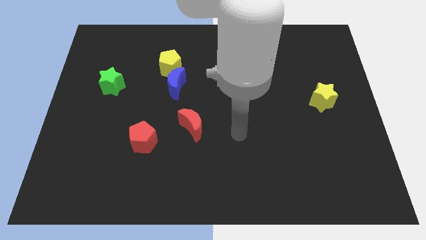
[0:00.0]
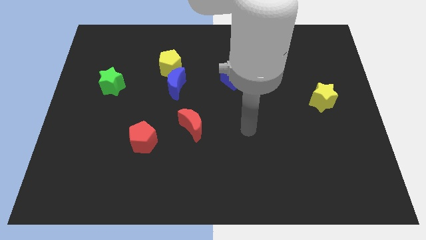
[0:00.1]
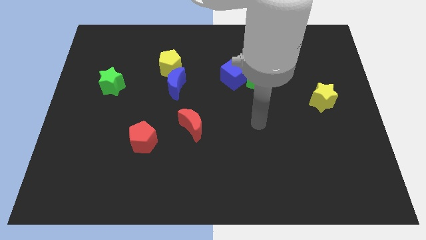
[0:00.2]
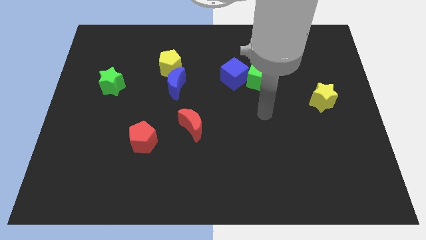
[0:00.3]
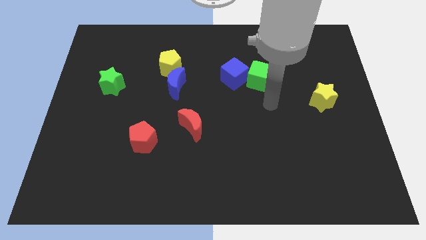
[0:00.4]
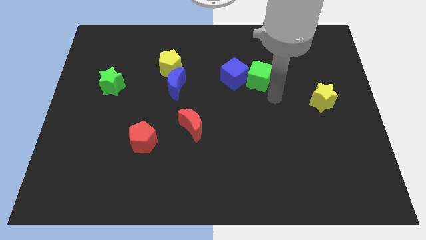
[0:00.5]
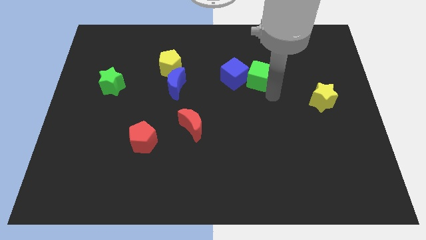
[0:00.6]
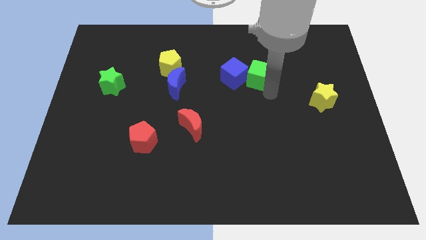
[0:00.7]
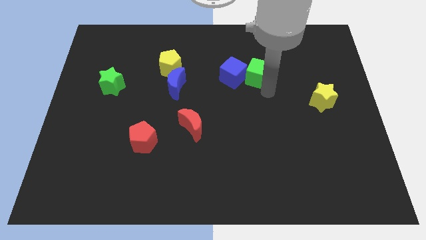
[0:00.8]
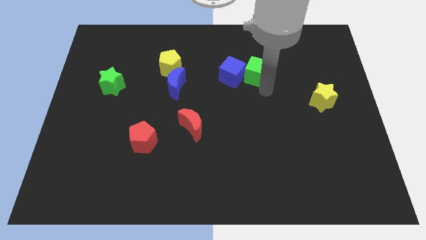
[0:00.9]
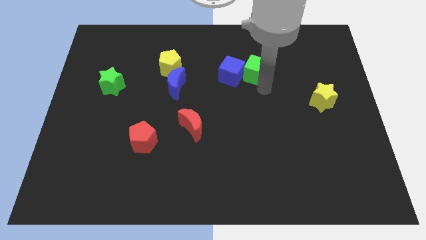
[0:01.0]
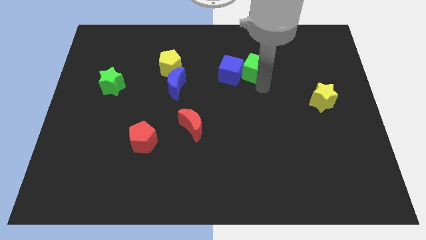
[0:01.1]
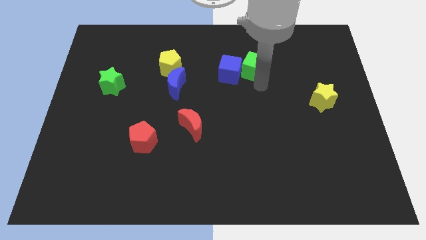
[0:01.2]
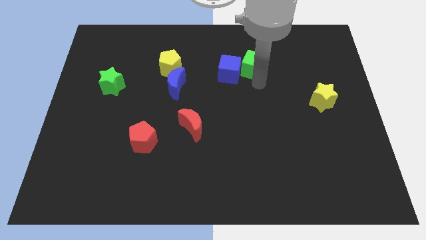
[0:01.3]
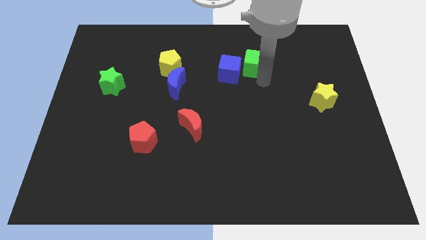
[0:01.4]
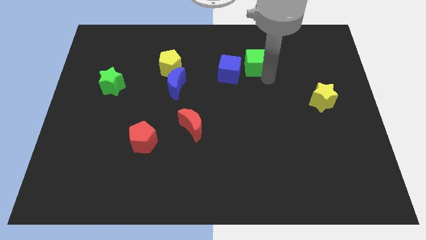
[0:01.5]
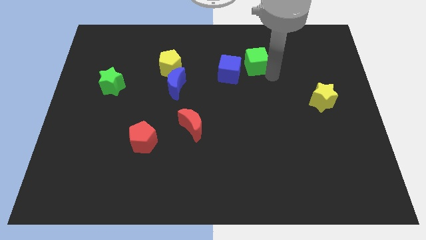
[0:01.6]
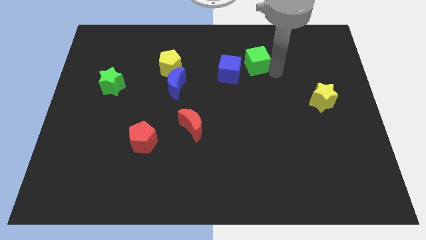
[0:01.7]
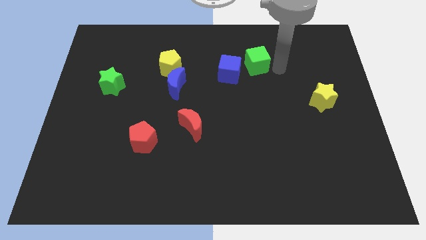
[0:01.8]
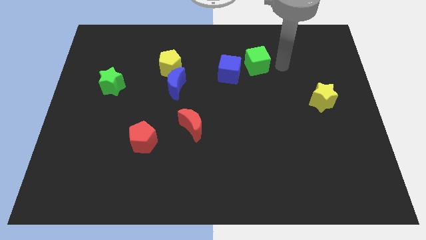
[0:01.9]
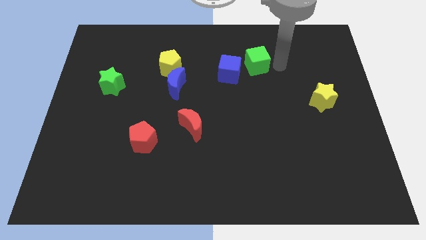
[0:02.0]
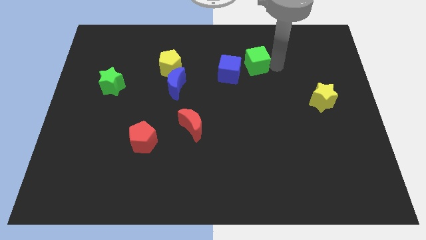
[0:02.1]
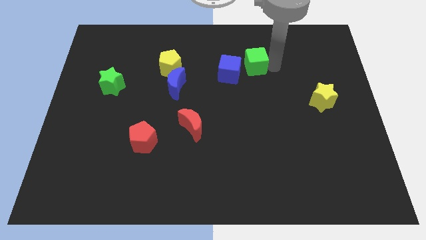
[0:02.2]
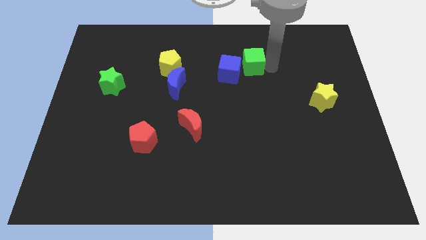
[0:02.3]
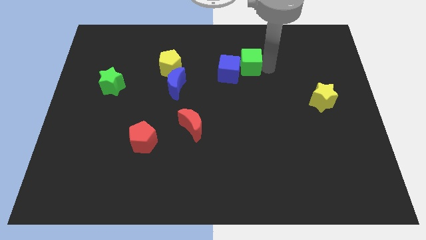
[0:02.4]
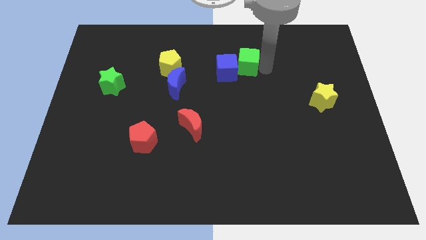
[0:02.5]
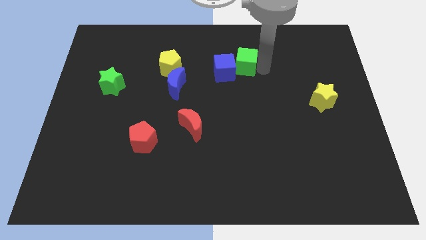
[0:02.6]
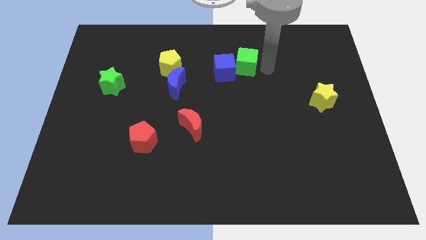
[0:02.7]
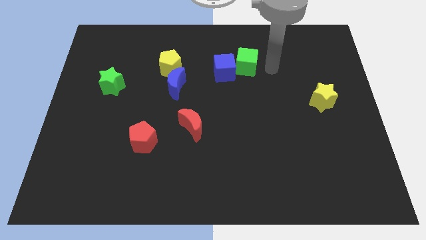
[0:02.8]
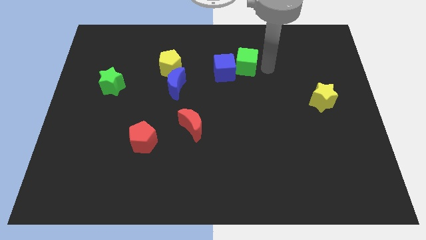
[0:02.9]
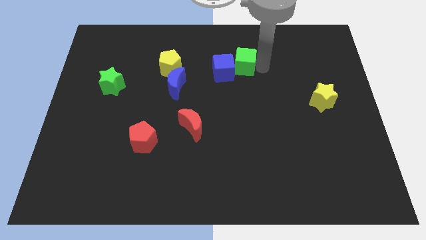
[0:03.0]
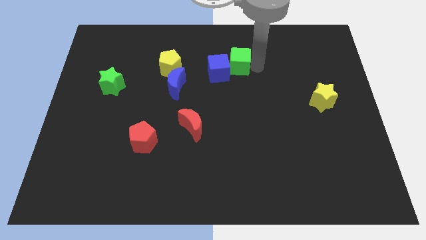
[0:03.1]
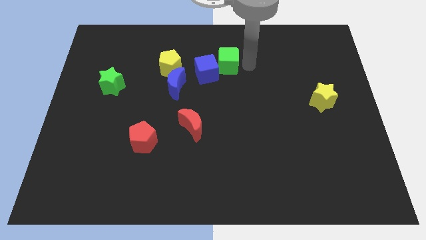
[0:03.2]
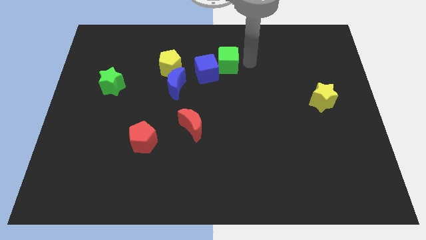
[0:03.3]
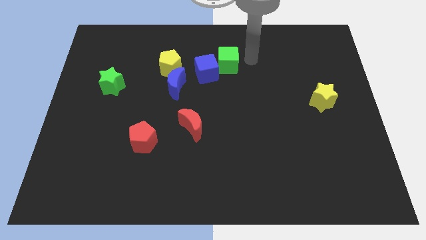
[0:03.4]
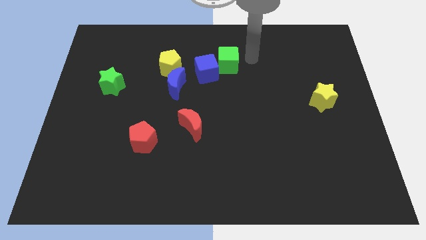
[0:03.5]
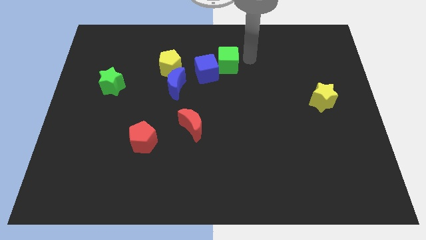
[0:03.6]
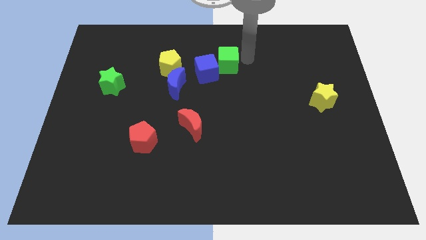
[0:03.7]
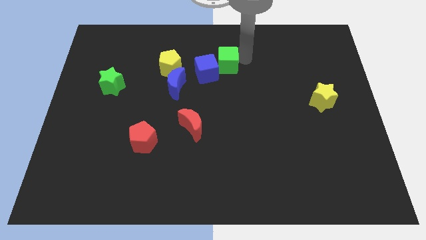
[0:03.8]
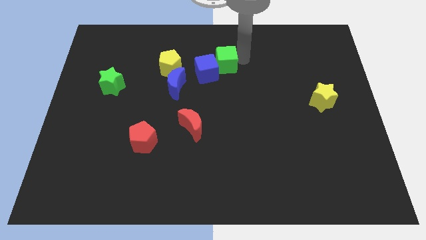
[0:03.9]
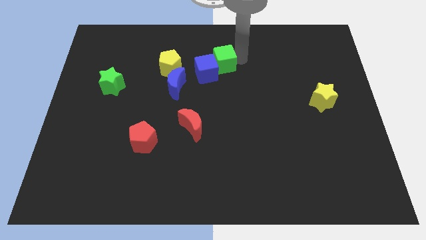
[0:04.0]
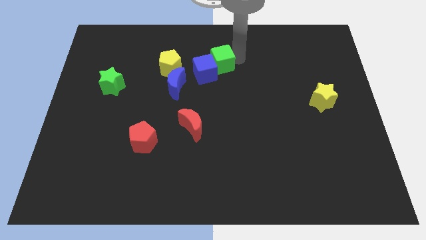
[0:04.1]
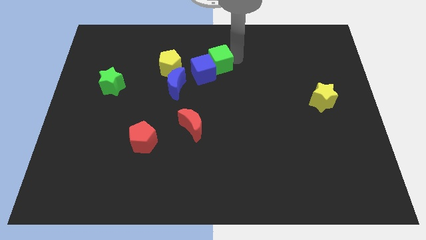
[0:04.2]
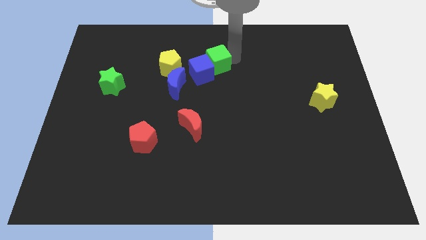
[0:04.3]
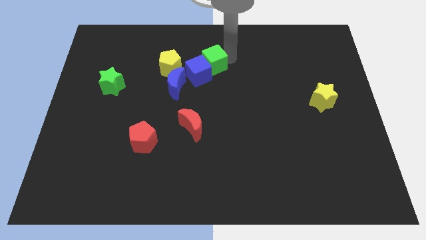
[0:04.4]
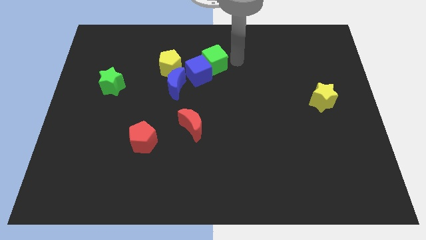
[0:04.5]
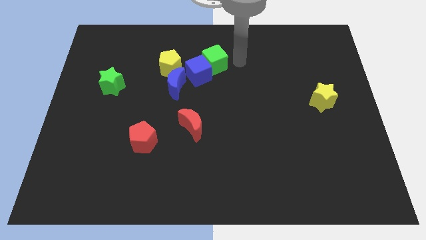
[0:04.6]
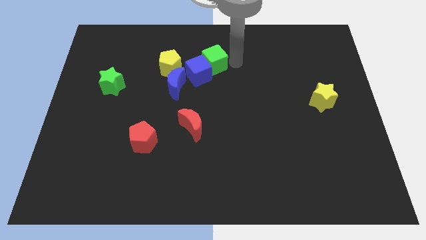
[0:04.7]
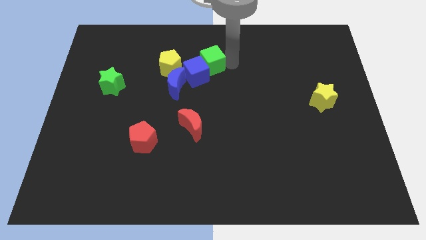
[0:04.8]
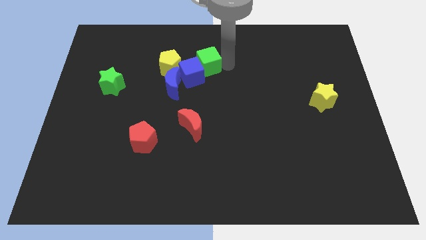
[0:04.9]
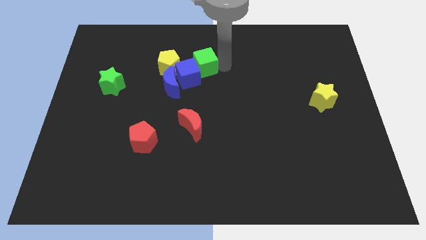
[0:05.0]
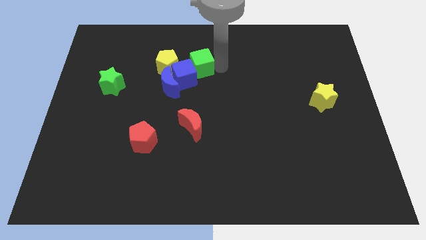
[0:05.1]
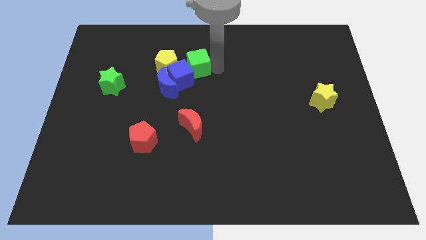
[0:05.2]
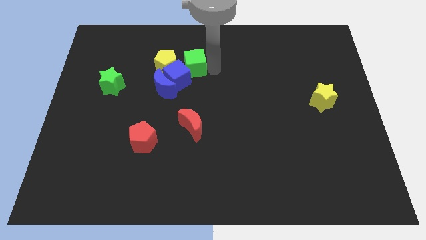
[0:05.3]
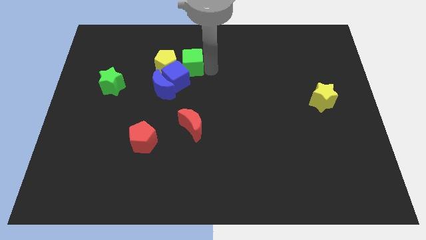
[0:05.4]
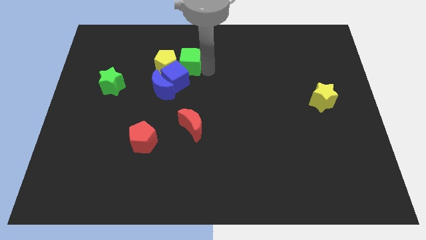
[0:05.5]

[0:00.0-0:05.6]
move the green cube towards the yellow pentagon

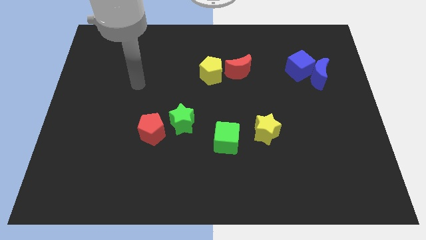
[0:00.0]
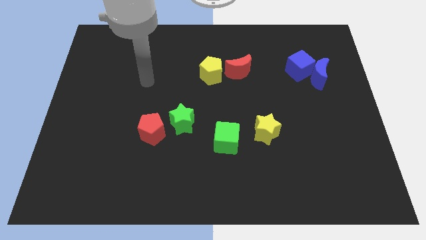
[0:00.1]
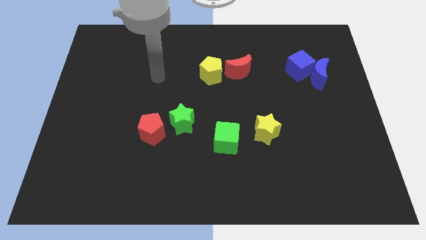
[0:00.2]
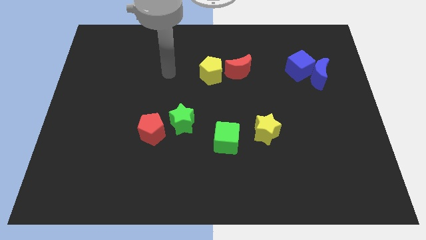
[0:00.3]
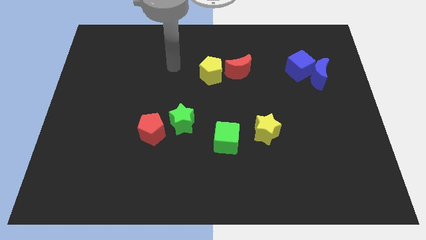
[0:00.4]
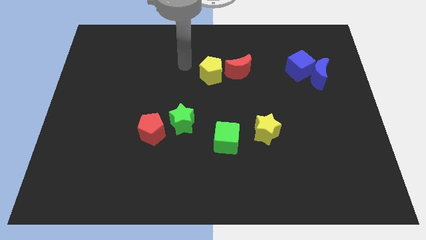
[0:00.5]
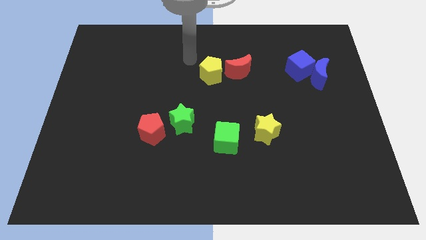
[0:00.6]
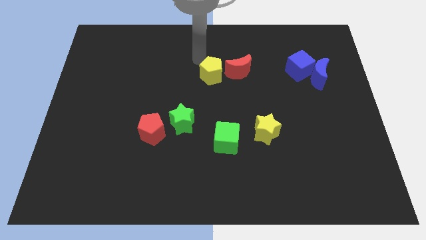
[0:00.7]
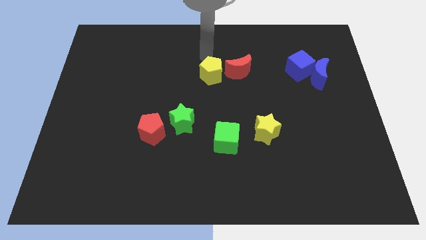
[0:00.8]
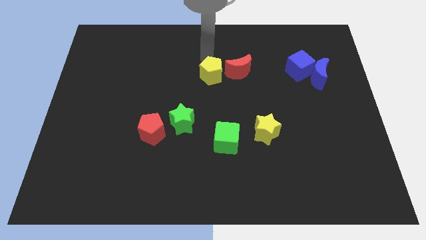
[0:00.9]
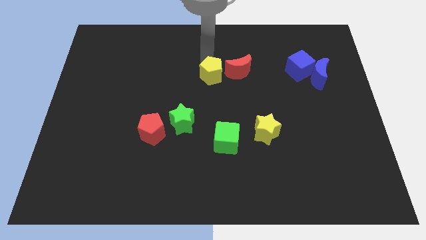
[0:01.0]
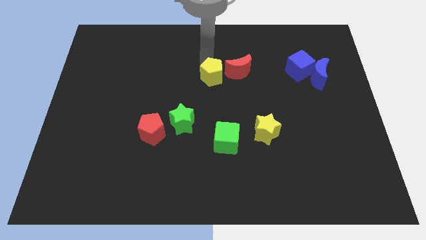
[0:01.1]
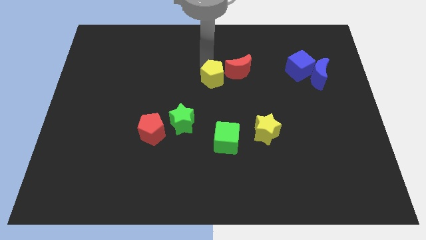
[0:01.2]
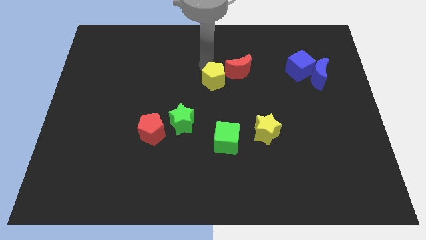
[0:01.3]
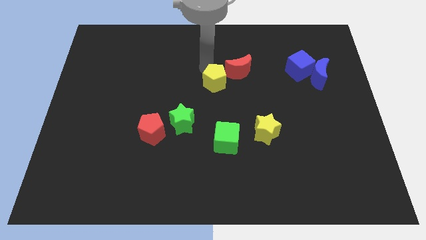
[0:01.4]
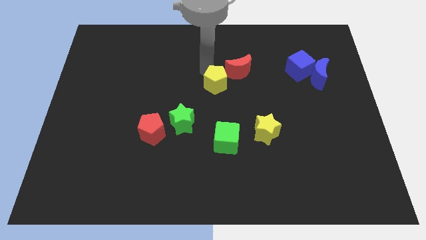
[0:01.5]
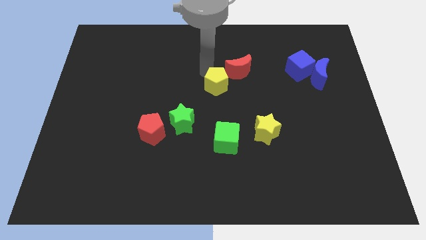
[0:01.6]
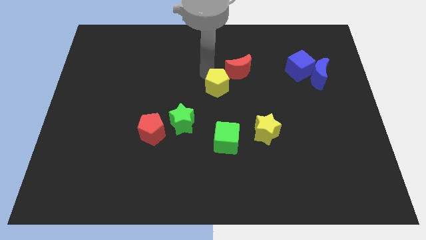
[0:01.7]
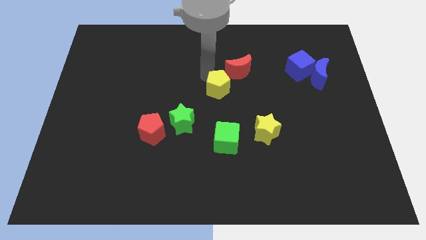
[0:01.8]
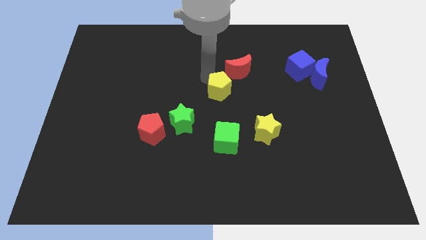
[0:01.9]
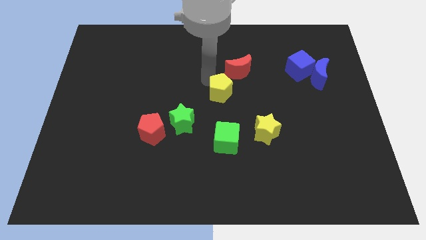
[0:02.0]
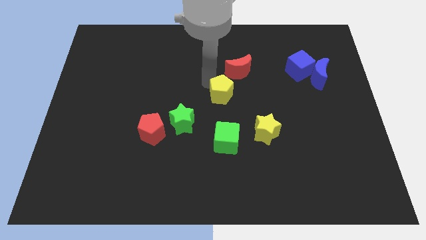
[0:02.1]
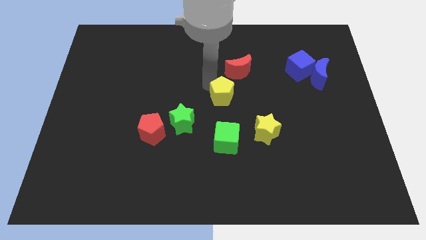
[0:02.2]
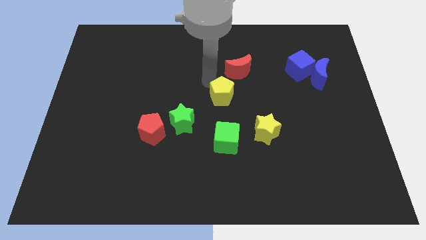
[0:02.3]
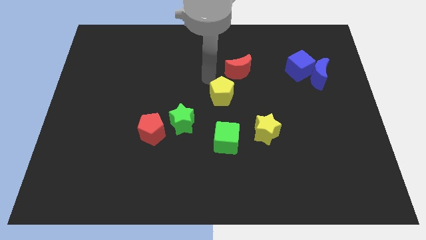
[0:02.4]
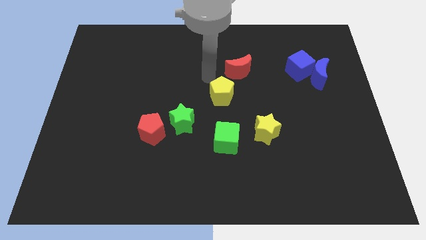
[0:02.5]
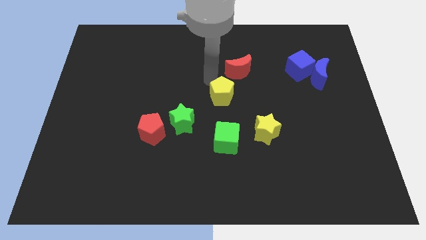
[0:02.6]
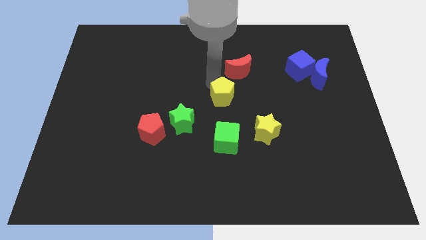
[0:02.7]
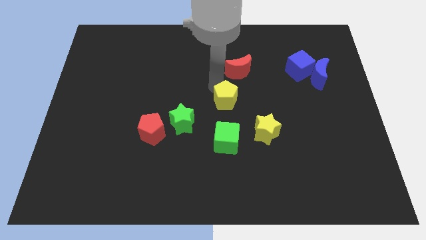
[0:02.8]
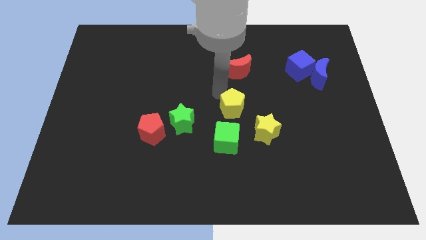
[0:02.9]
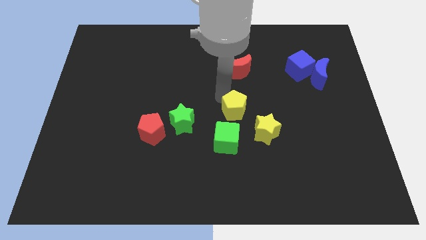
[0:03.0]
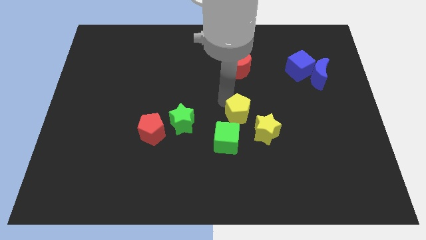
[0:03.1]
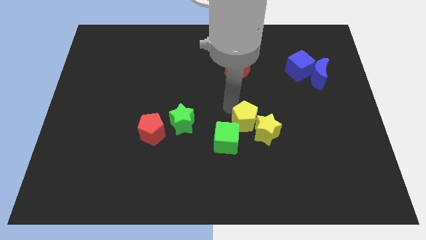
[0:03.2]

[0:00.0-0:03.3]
slide the yellow pentagon next to the yellow star
